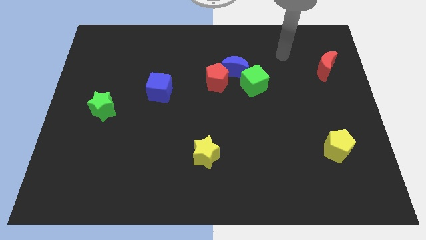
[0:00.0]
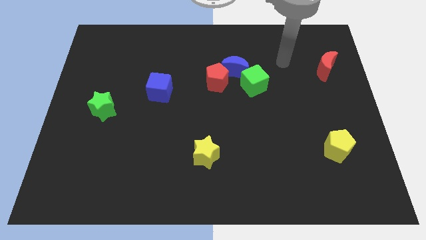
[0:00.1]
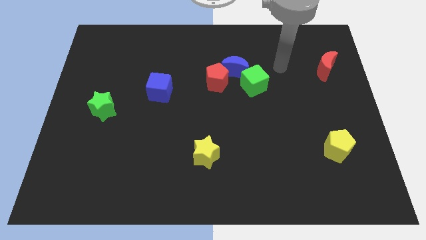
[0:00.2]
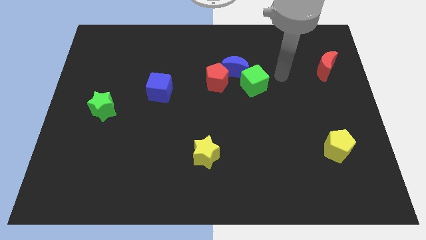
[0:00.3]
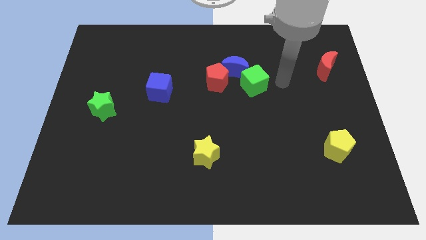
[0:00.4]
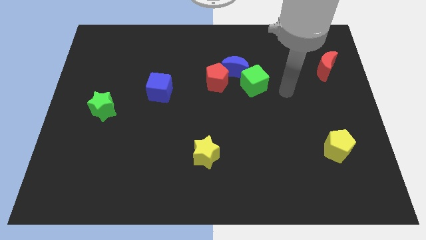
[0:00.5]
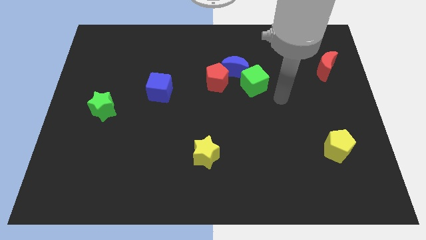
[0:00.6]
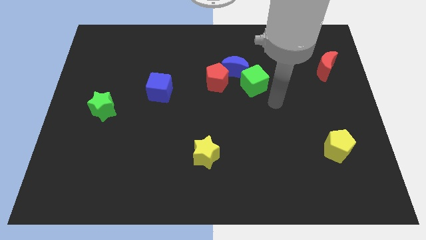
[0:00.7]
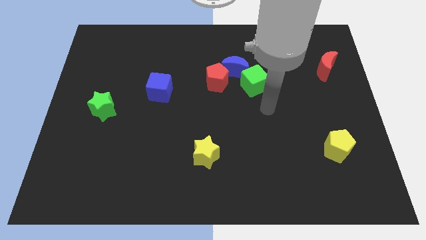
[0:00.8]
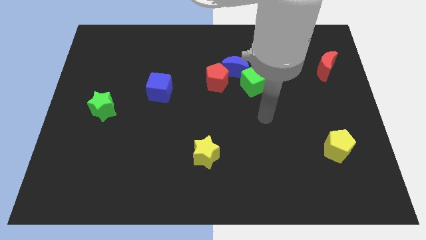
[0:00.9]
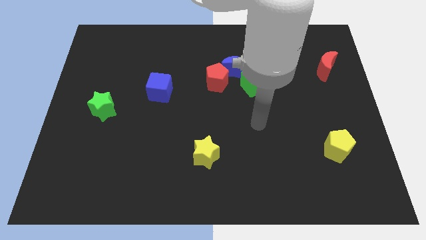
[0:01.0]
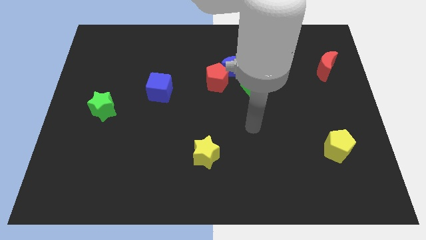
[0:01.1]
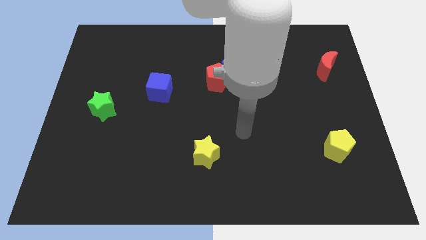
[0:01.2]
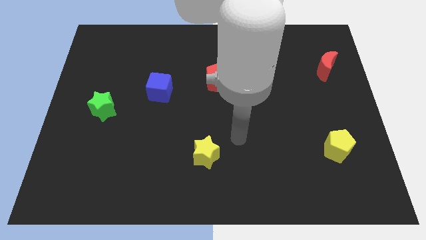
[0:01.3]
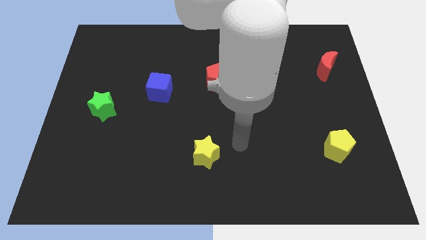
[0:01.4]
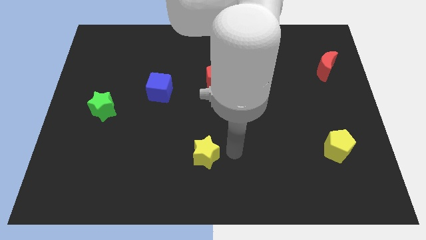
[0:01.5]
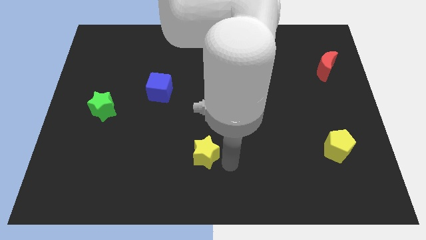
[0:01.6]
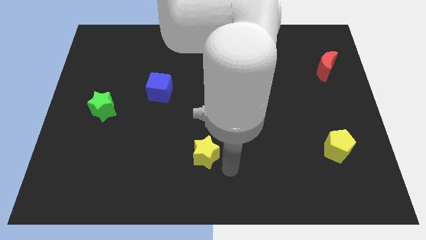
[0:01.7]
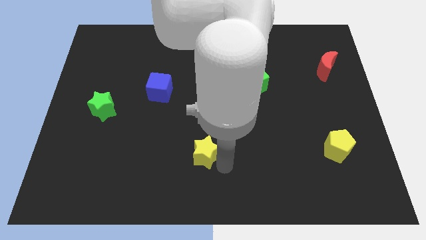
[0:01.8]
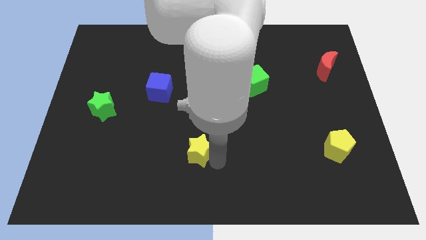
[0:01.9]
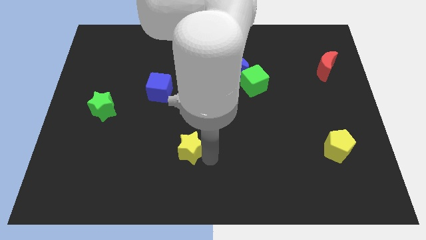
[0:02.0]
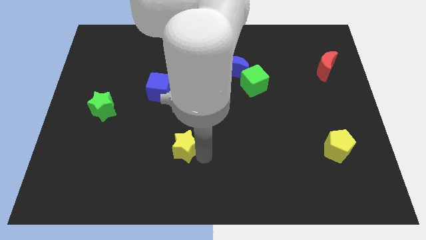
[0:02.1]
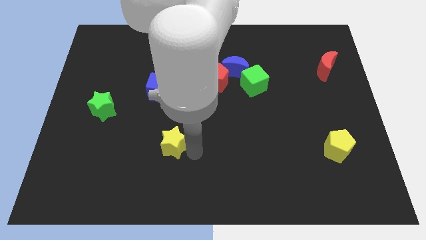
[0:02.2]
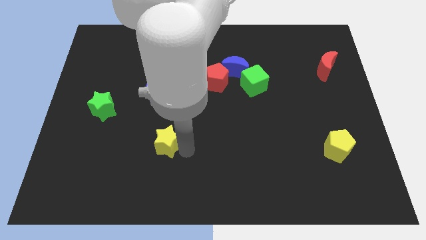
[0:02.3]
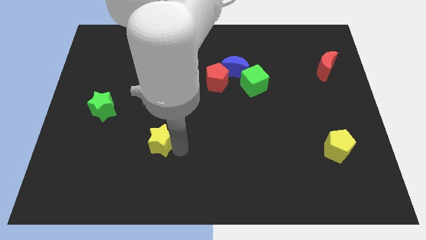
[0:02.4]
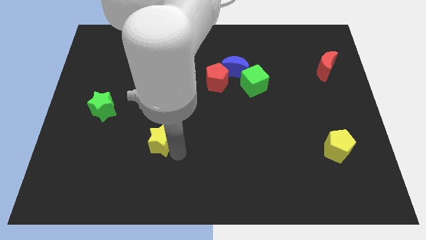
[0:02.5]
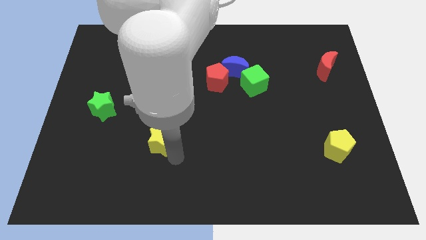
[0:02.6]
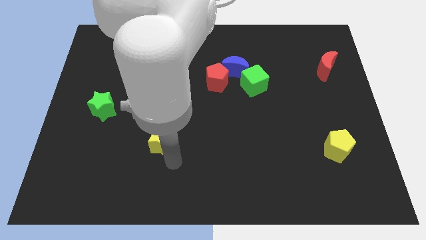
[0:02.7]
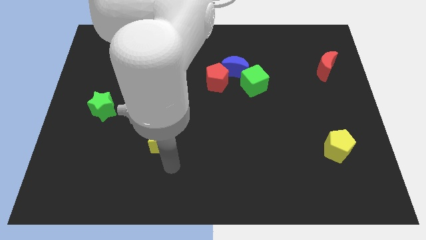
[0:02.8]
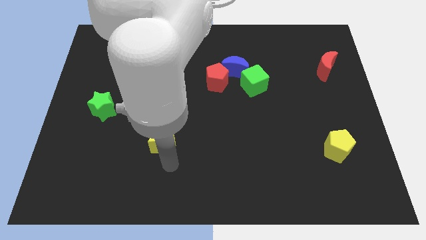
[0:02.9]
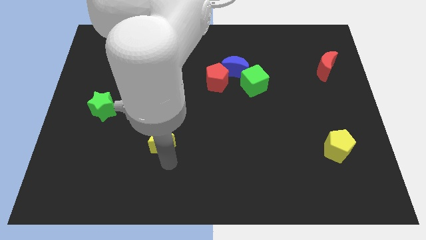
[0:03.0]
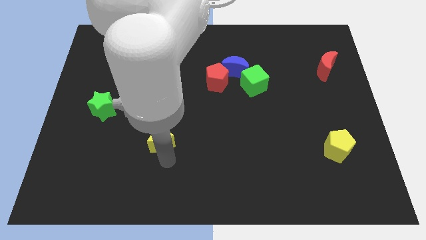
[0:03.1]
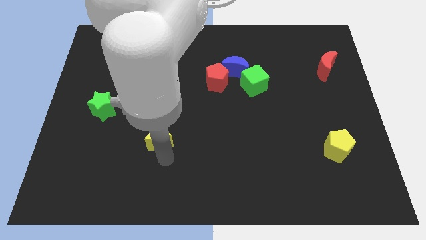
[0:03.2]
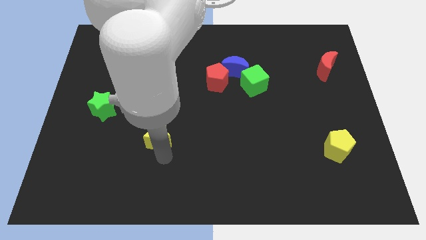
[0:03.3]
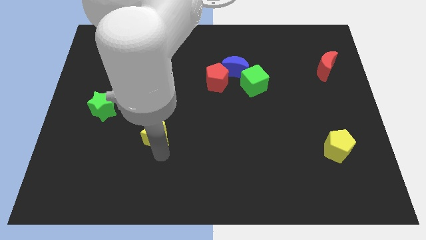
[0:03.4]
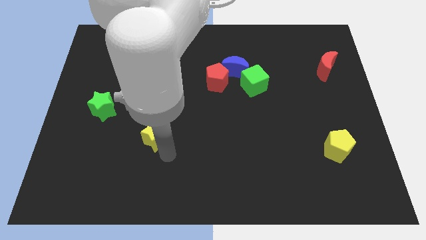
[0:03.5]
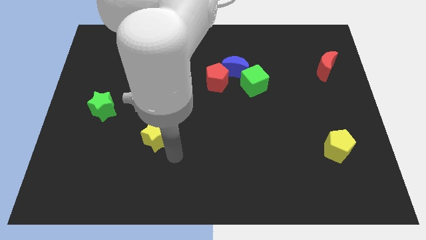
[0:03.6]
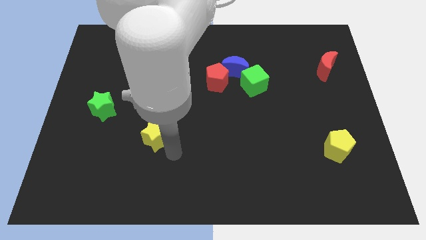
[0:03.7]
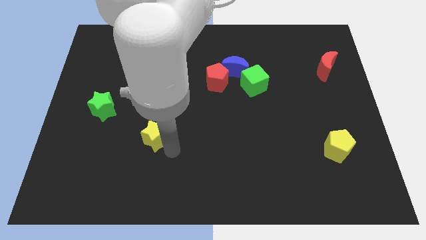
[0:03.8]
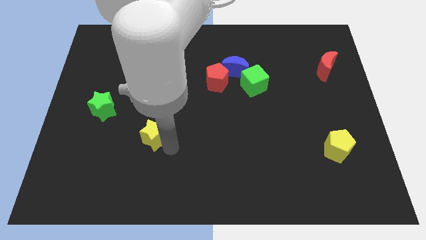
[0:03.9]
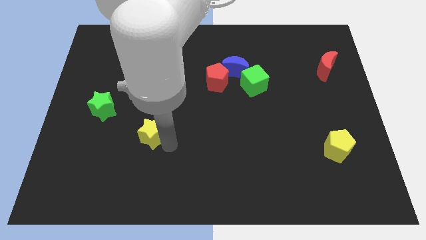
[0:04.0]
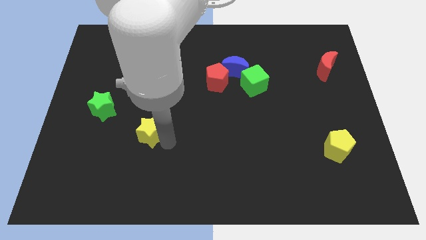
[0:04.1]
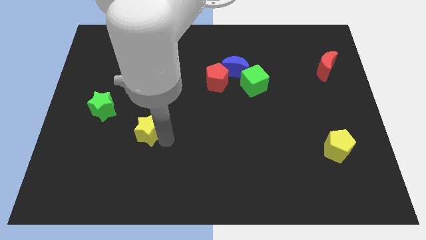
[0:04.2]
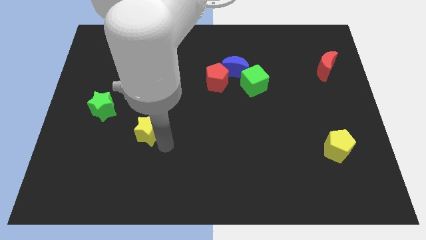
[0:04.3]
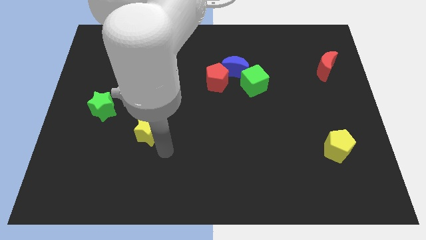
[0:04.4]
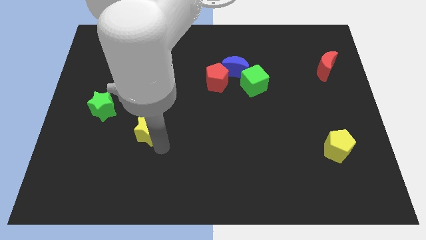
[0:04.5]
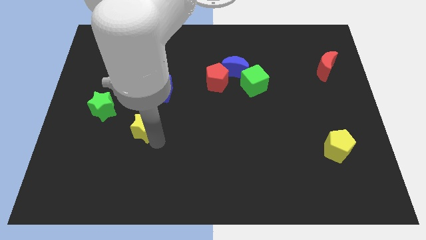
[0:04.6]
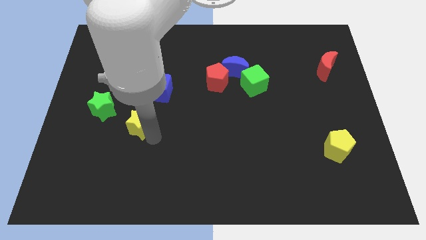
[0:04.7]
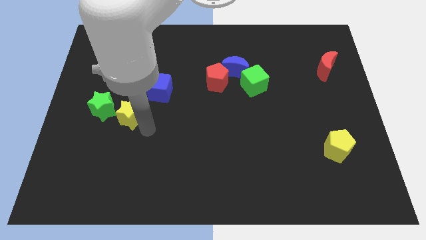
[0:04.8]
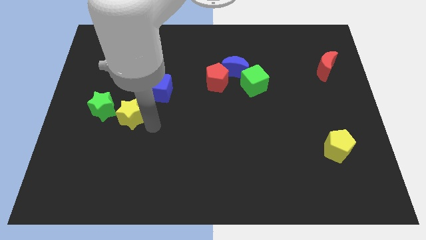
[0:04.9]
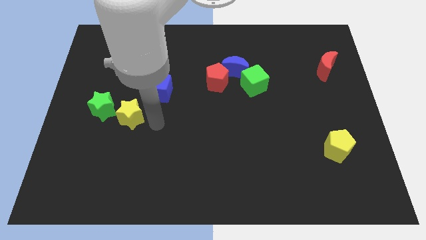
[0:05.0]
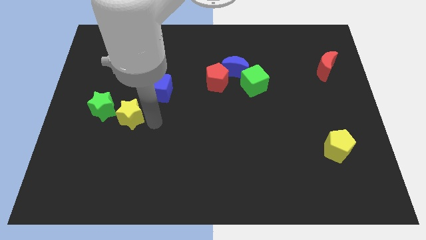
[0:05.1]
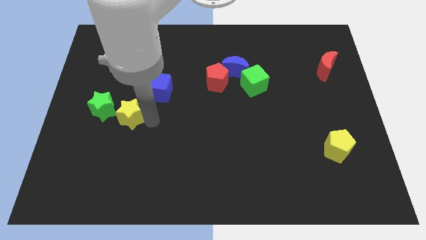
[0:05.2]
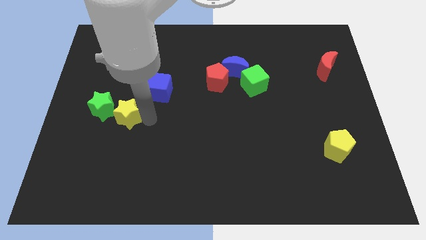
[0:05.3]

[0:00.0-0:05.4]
slide the yellow star towards the green star

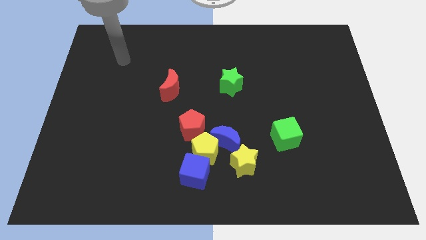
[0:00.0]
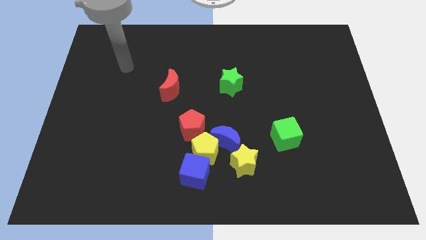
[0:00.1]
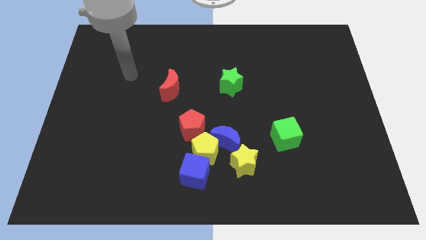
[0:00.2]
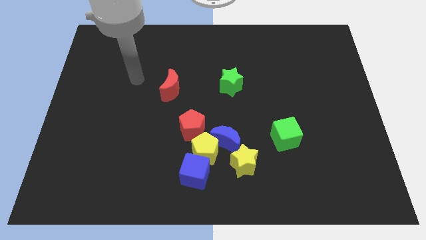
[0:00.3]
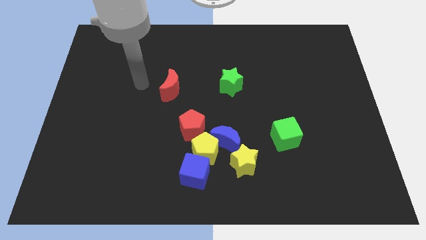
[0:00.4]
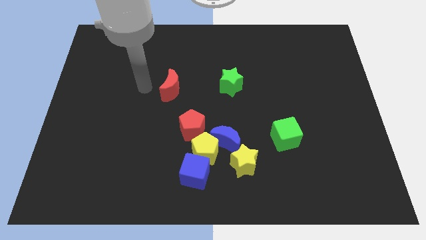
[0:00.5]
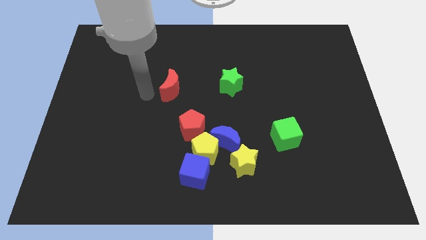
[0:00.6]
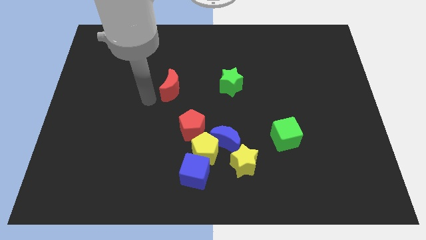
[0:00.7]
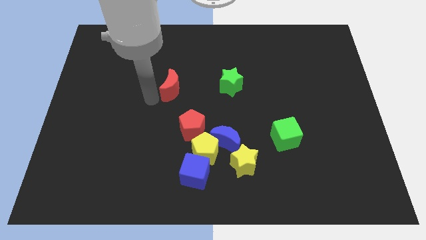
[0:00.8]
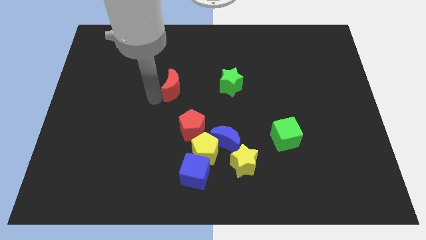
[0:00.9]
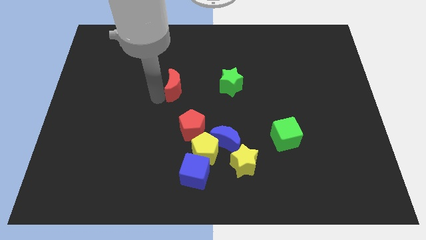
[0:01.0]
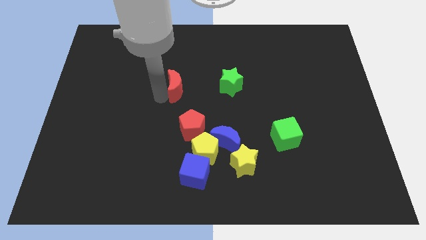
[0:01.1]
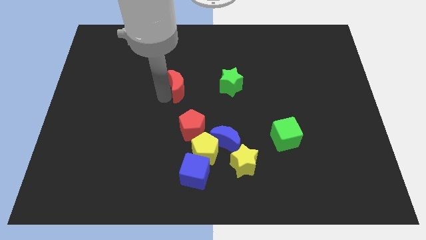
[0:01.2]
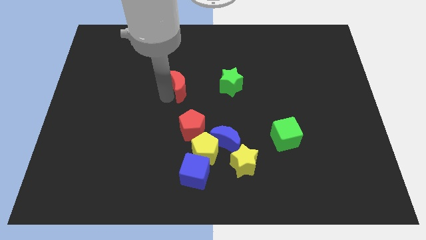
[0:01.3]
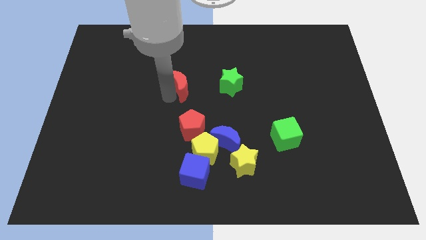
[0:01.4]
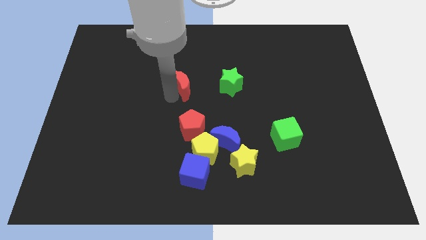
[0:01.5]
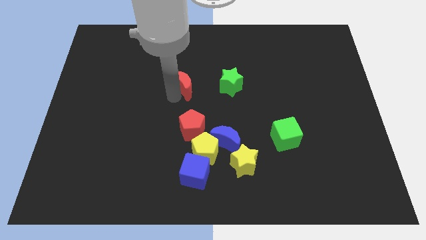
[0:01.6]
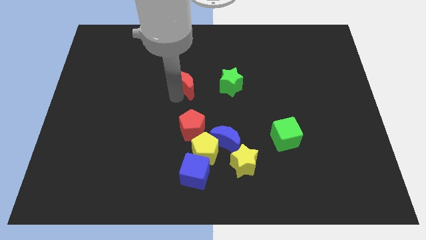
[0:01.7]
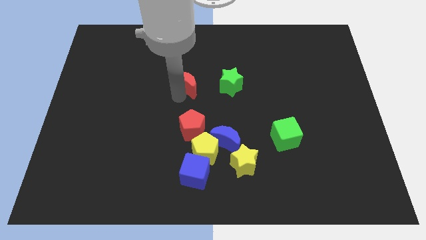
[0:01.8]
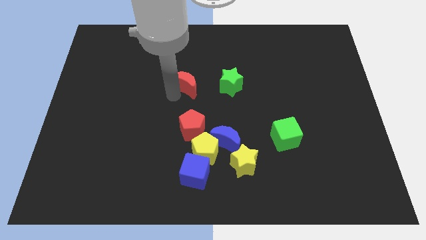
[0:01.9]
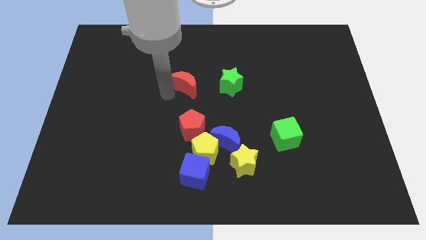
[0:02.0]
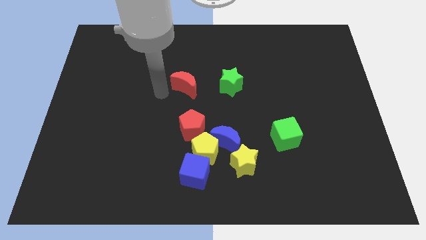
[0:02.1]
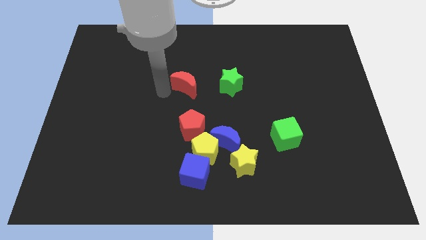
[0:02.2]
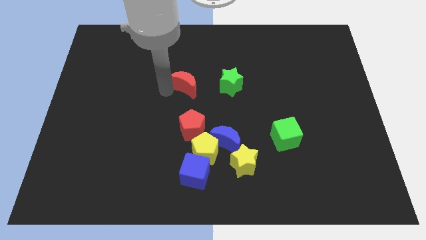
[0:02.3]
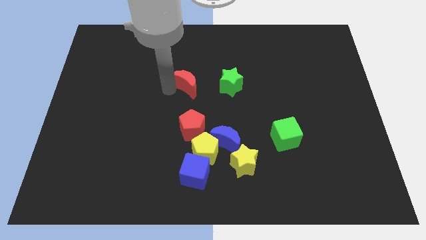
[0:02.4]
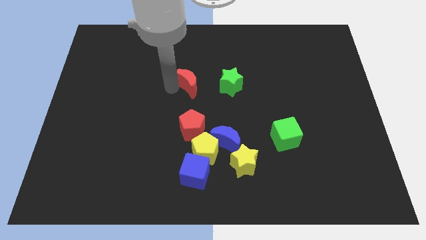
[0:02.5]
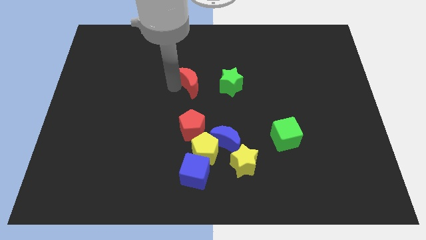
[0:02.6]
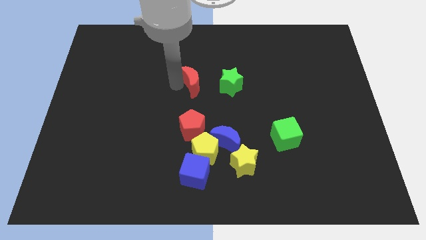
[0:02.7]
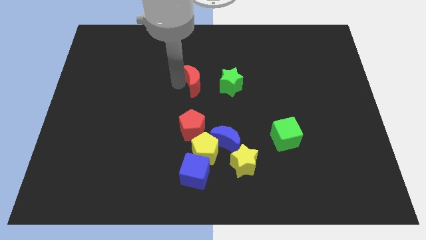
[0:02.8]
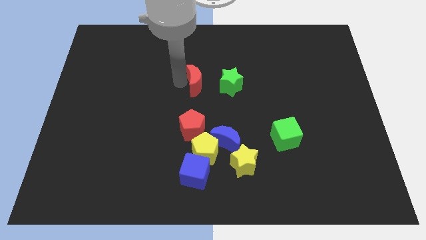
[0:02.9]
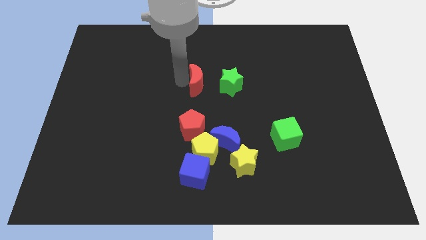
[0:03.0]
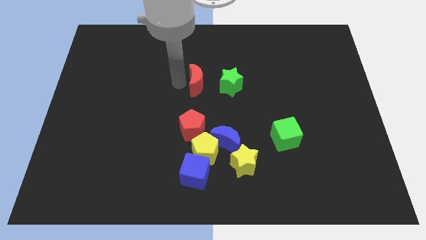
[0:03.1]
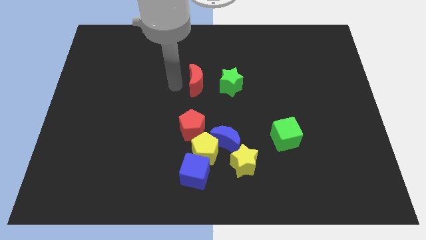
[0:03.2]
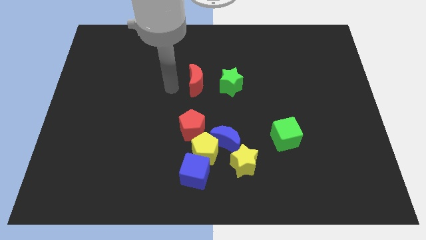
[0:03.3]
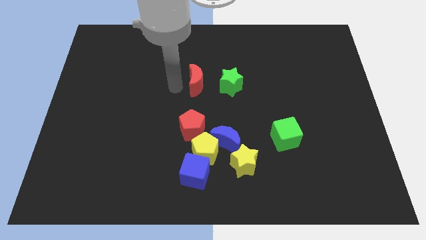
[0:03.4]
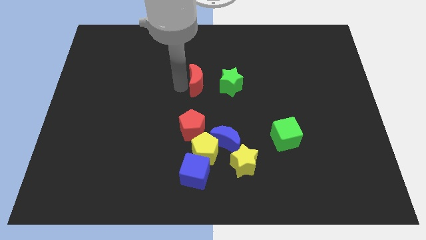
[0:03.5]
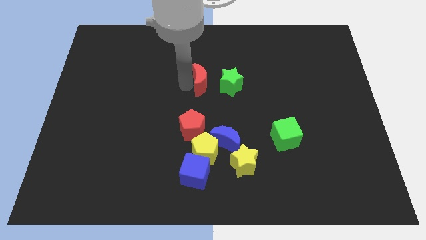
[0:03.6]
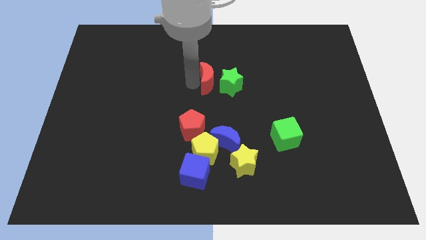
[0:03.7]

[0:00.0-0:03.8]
push the red moon to the green star
